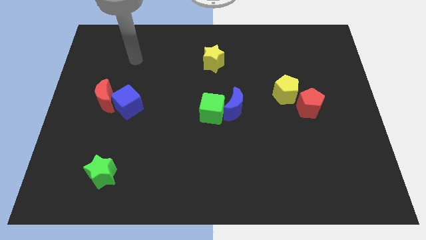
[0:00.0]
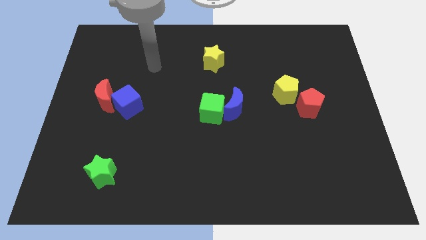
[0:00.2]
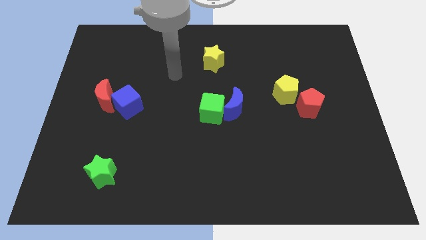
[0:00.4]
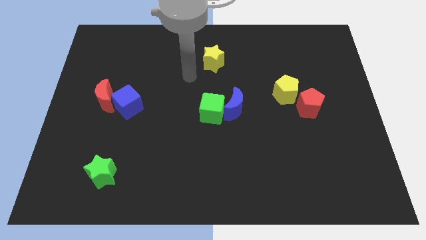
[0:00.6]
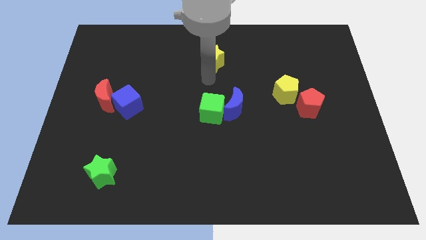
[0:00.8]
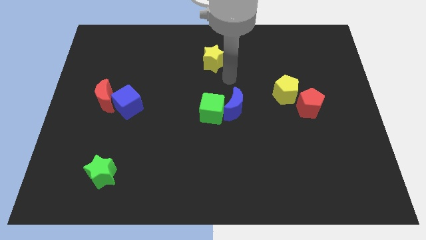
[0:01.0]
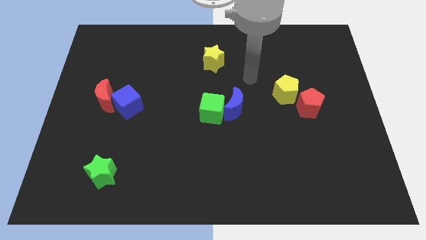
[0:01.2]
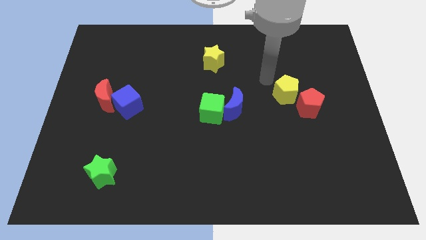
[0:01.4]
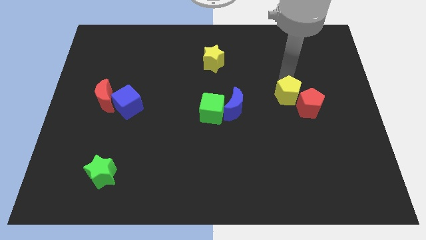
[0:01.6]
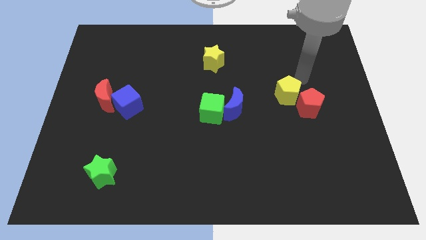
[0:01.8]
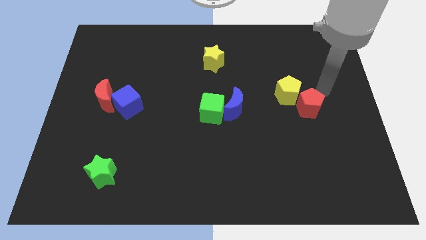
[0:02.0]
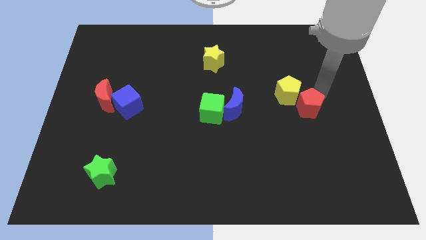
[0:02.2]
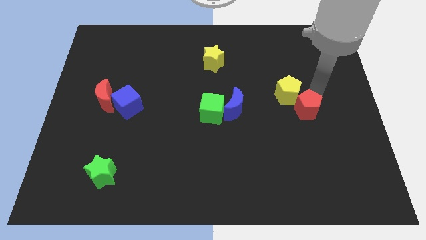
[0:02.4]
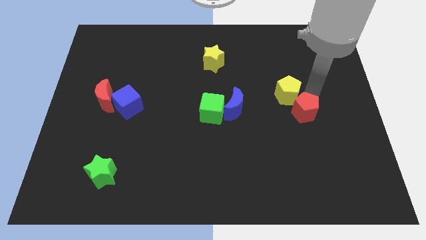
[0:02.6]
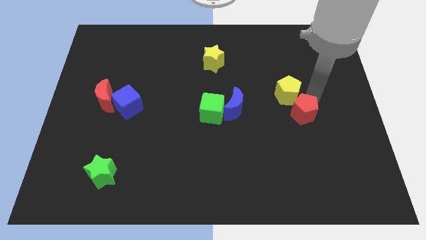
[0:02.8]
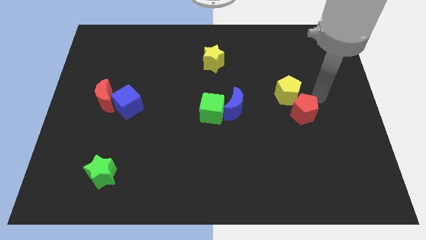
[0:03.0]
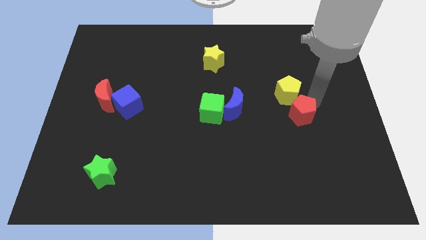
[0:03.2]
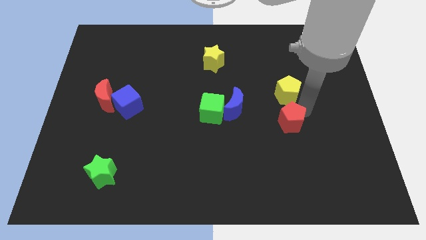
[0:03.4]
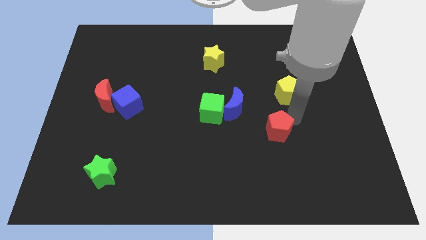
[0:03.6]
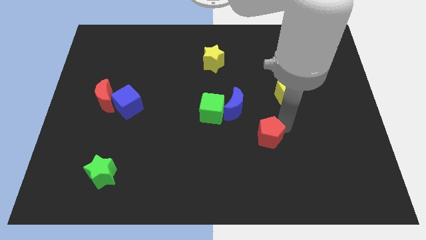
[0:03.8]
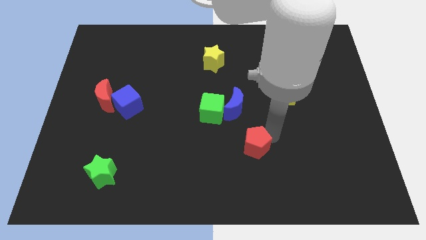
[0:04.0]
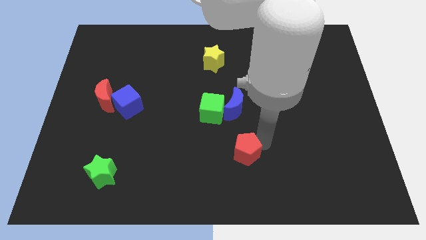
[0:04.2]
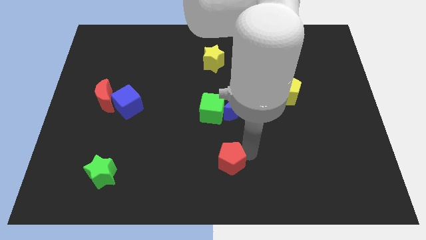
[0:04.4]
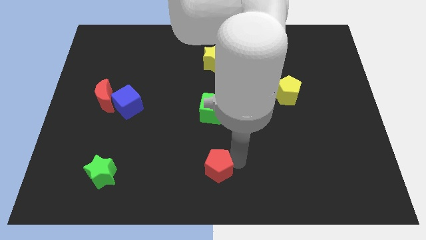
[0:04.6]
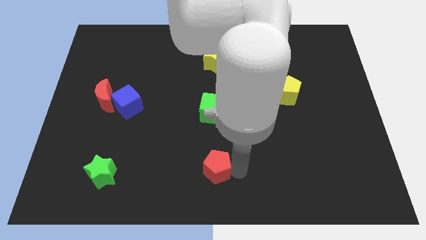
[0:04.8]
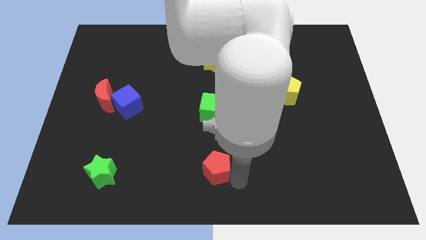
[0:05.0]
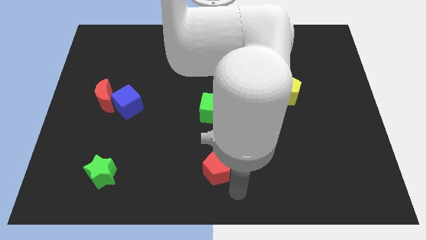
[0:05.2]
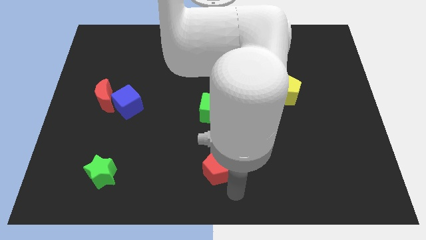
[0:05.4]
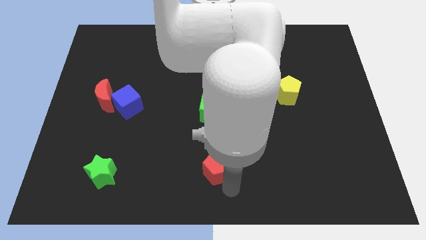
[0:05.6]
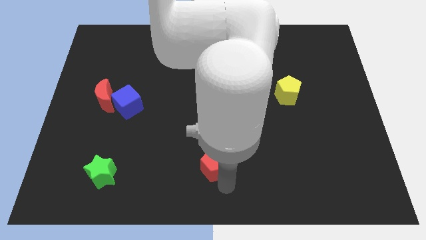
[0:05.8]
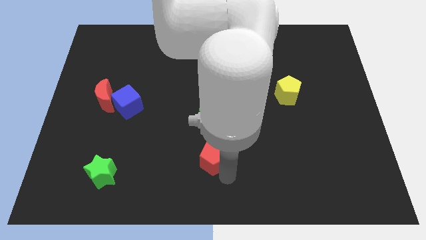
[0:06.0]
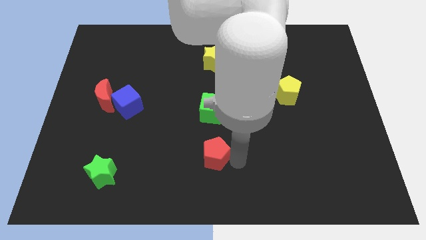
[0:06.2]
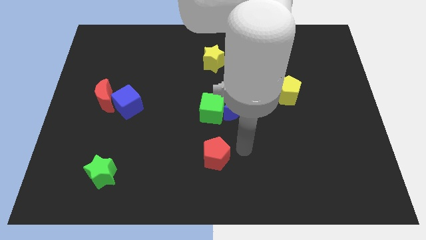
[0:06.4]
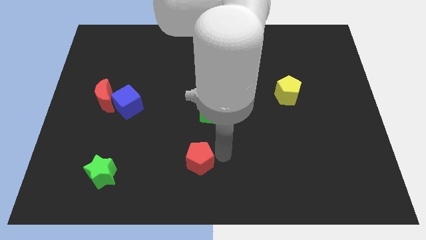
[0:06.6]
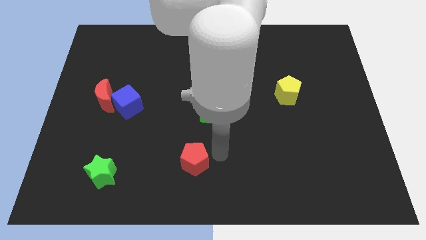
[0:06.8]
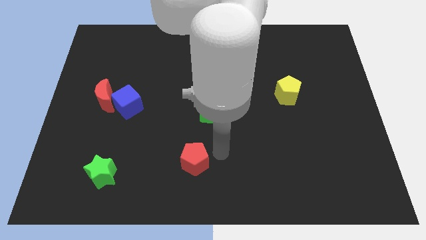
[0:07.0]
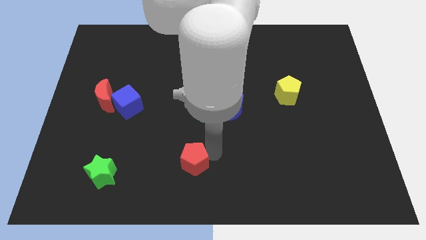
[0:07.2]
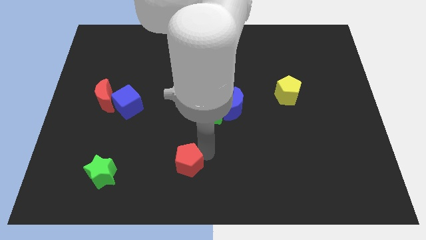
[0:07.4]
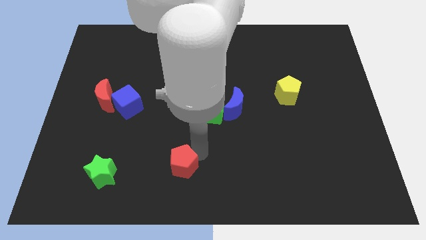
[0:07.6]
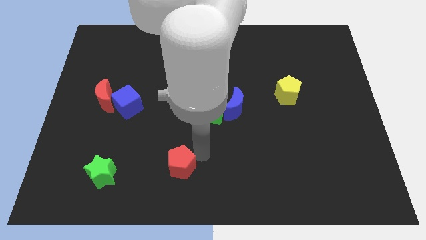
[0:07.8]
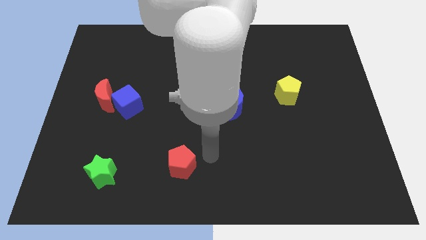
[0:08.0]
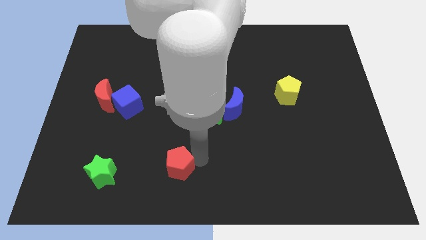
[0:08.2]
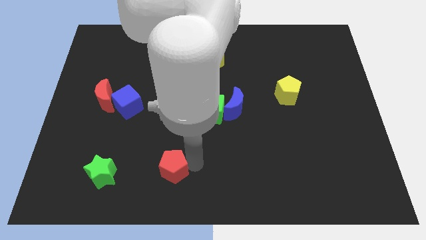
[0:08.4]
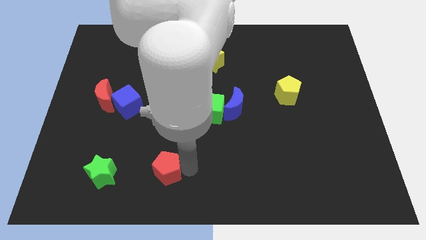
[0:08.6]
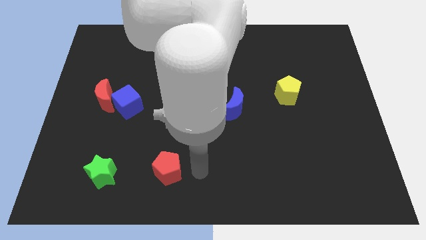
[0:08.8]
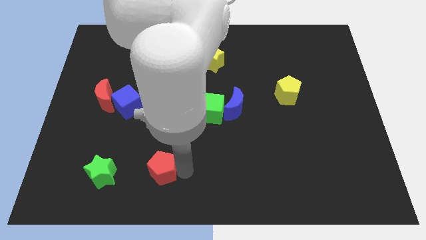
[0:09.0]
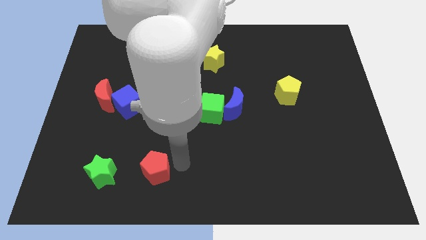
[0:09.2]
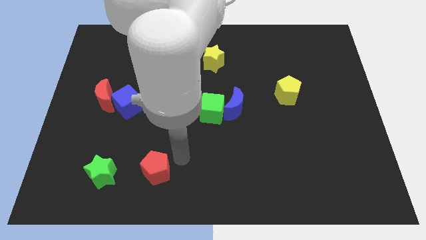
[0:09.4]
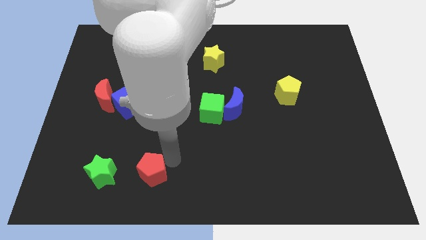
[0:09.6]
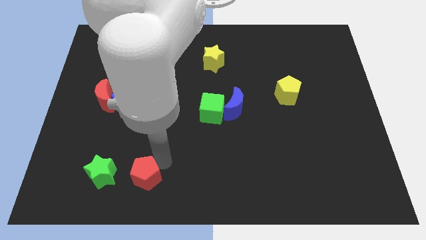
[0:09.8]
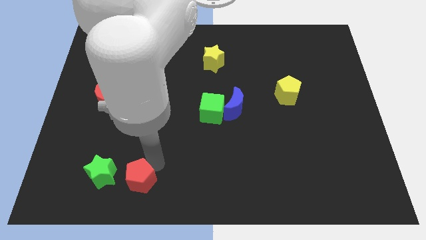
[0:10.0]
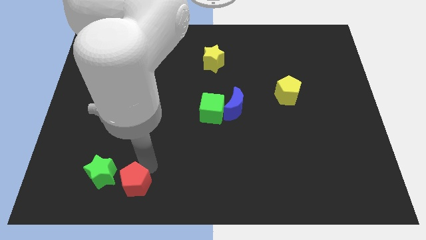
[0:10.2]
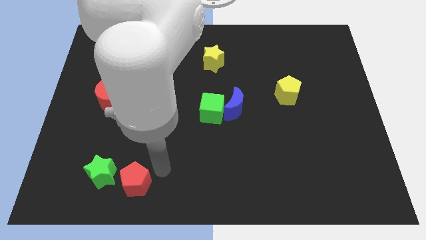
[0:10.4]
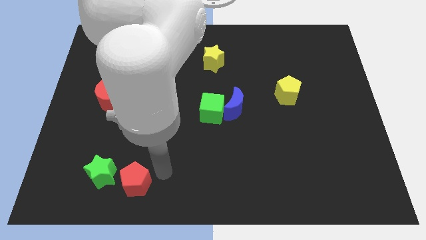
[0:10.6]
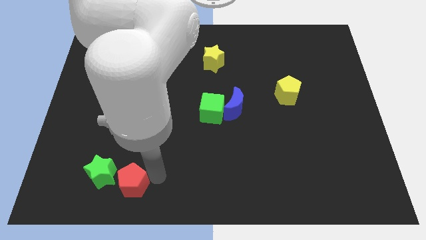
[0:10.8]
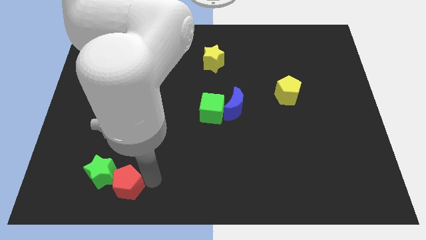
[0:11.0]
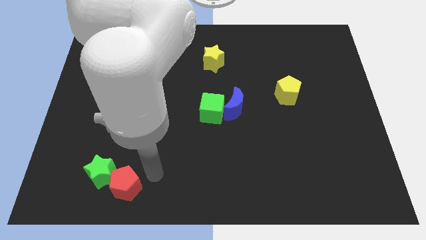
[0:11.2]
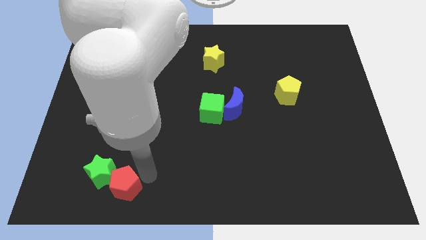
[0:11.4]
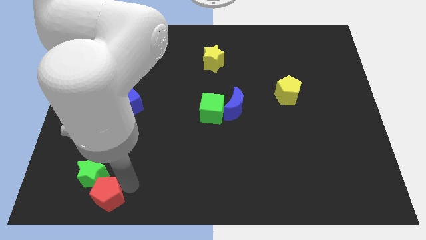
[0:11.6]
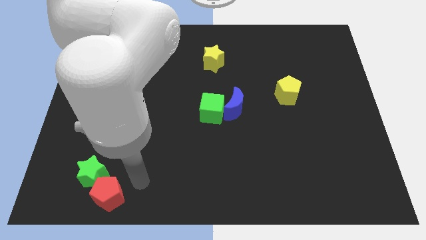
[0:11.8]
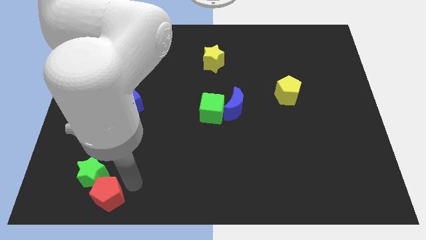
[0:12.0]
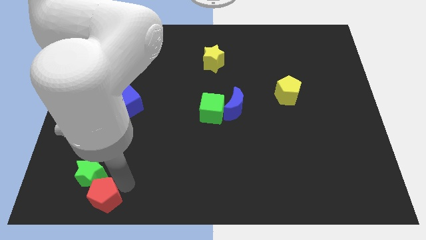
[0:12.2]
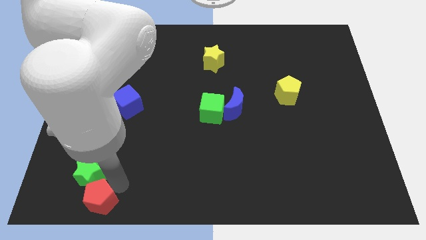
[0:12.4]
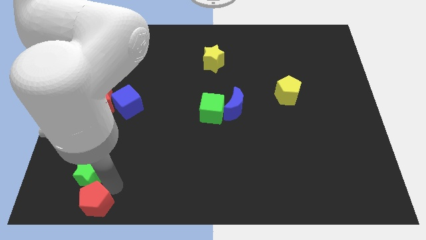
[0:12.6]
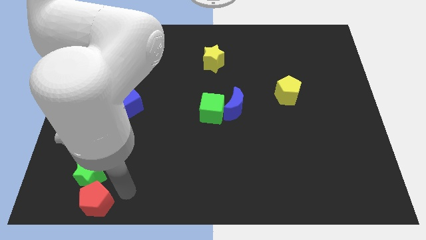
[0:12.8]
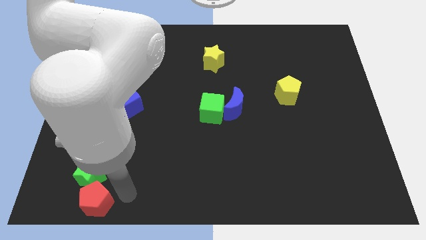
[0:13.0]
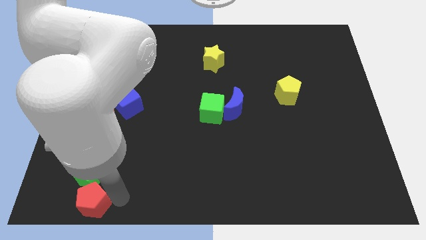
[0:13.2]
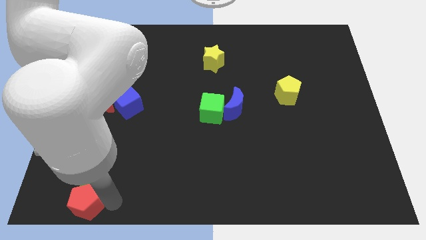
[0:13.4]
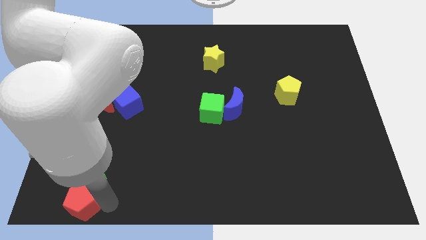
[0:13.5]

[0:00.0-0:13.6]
move the red pentagon to the bottom left of the board
